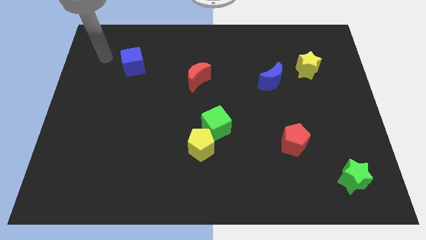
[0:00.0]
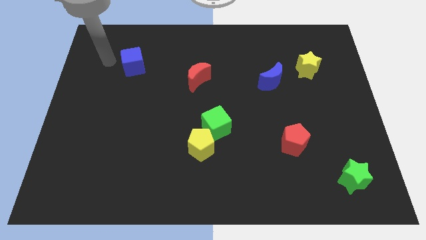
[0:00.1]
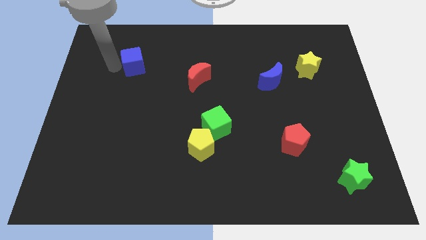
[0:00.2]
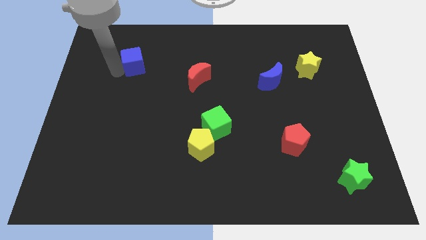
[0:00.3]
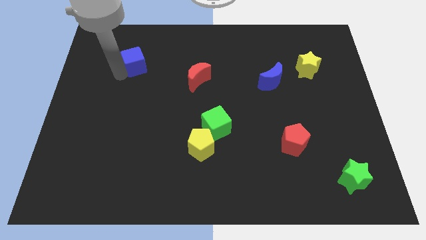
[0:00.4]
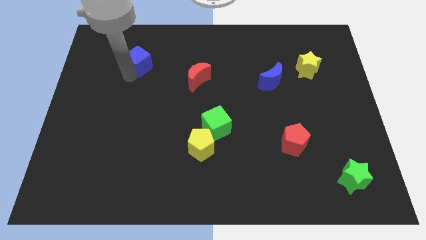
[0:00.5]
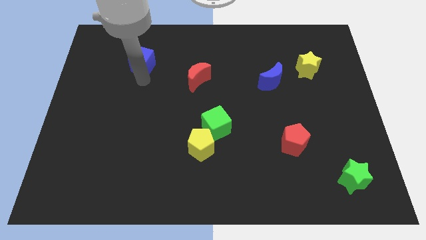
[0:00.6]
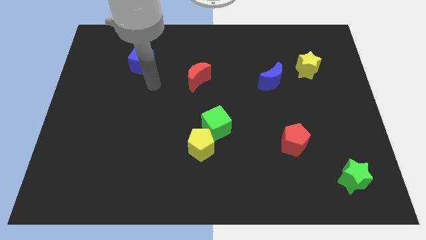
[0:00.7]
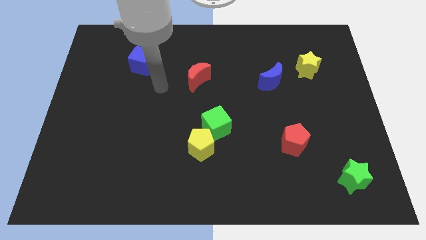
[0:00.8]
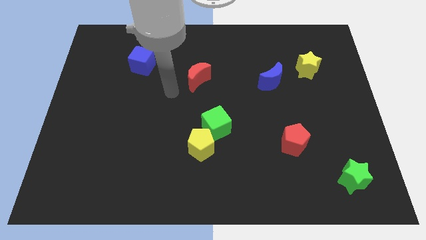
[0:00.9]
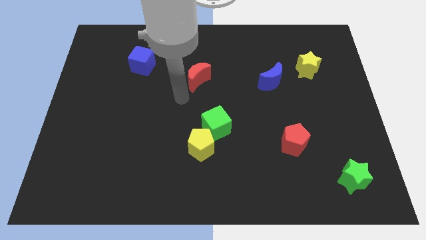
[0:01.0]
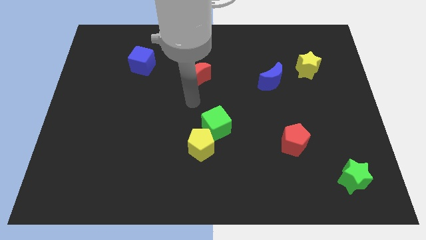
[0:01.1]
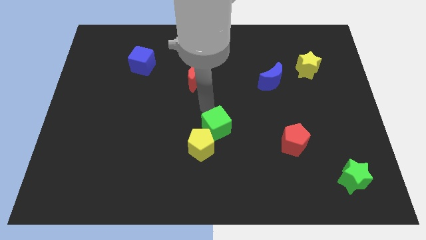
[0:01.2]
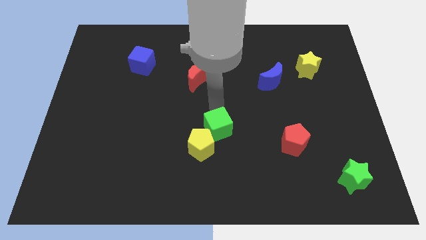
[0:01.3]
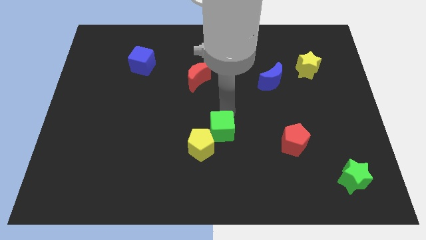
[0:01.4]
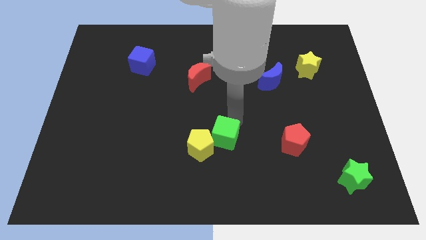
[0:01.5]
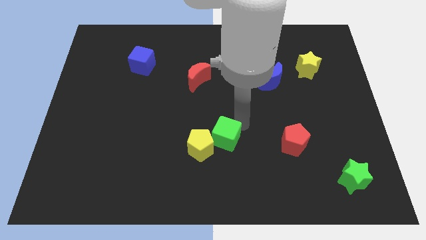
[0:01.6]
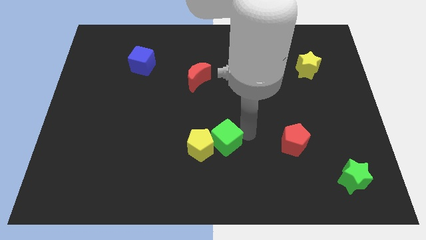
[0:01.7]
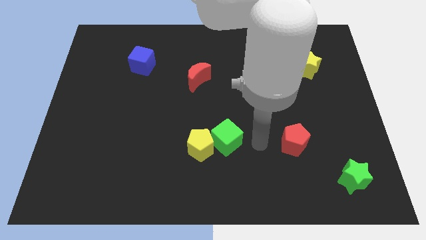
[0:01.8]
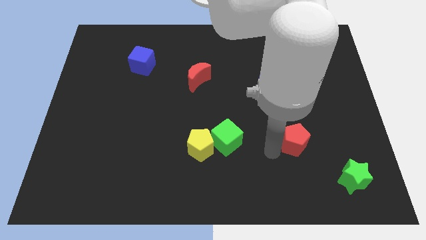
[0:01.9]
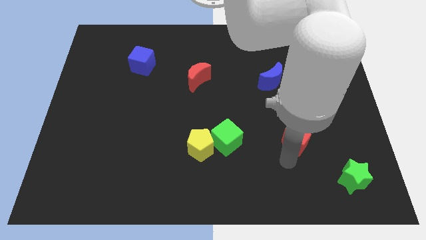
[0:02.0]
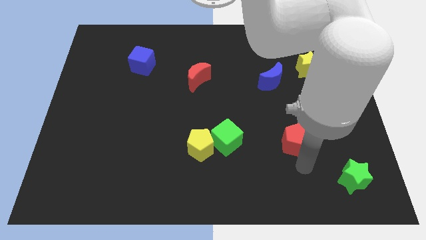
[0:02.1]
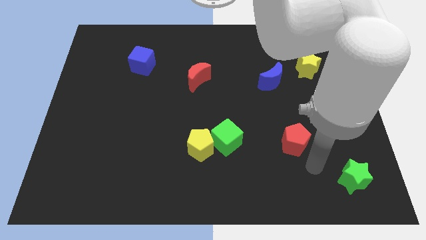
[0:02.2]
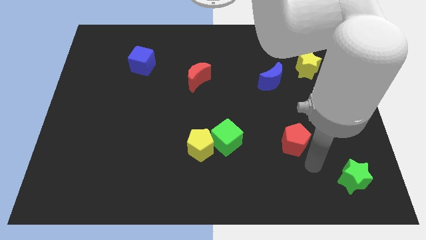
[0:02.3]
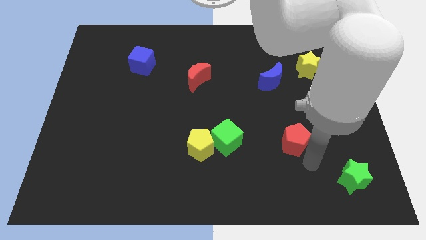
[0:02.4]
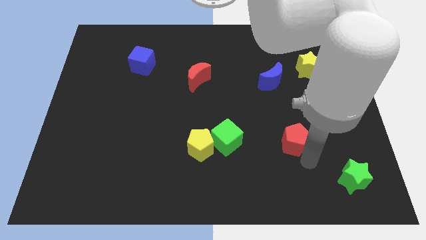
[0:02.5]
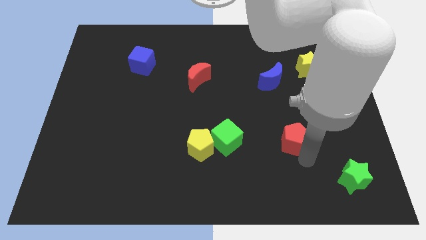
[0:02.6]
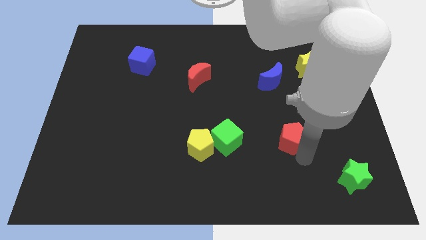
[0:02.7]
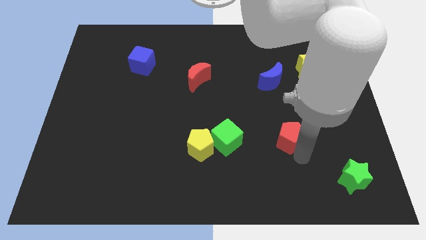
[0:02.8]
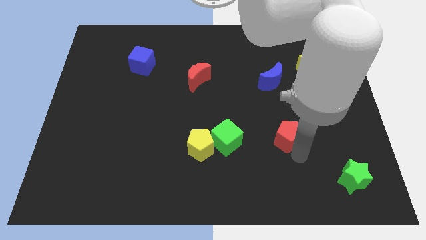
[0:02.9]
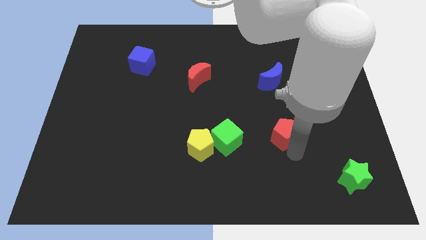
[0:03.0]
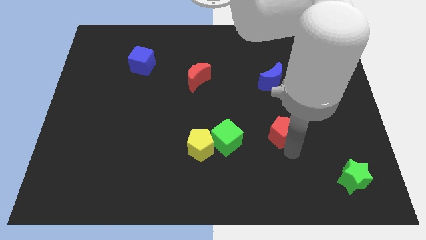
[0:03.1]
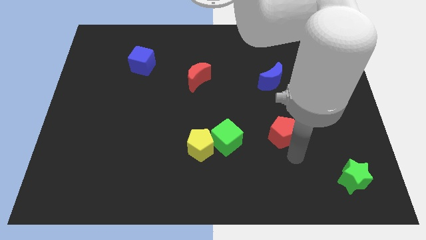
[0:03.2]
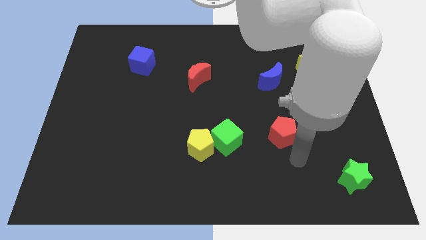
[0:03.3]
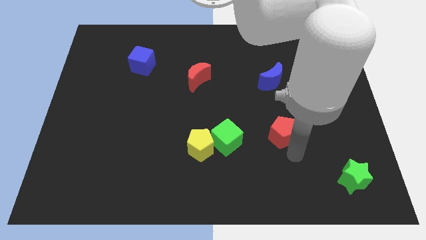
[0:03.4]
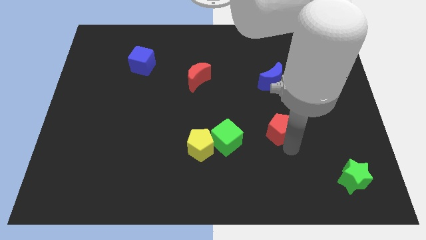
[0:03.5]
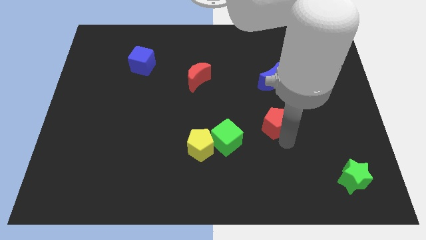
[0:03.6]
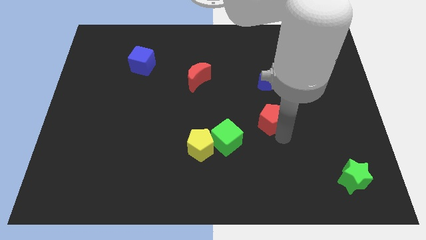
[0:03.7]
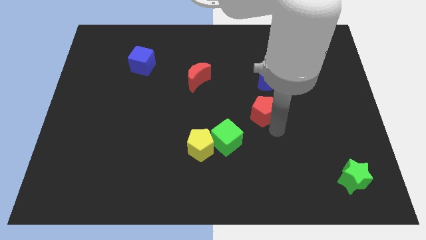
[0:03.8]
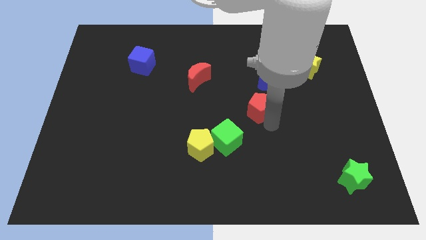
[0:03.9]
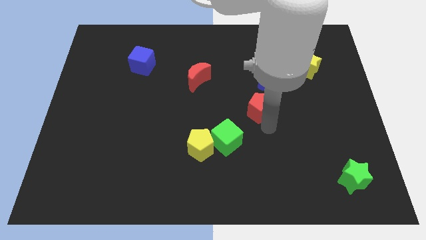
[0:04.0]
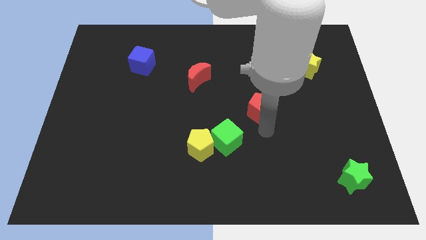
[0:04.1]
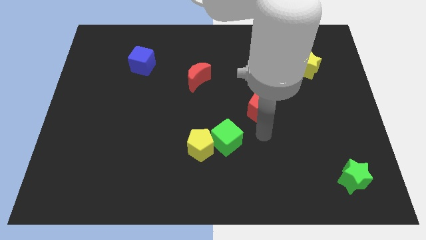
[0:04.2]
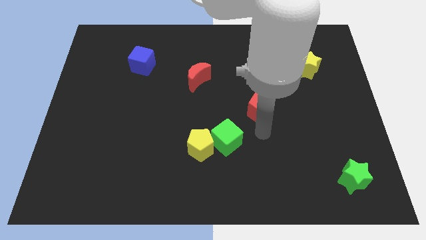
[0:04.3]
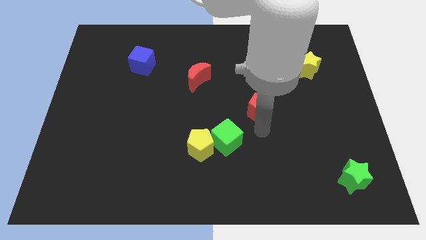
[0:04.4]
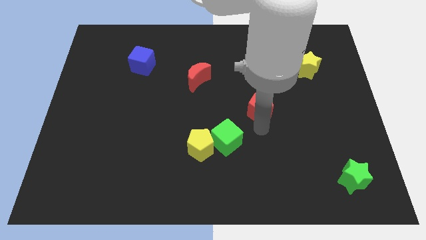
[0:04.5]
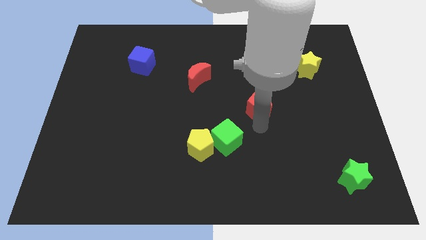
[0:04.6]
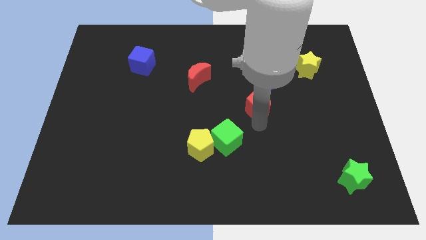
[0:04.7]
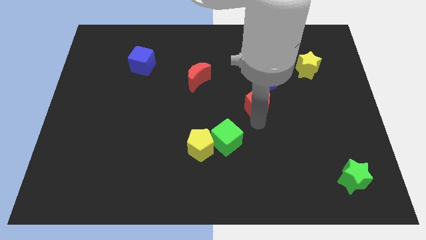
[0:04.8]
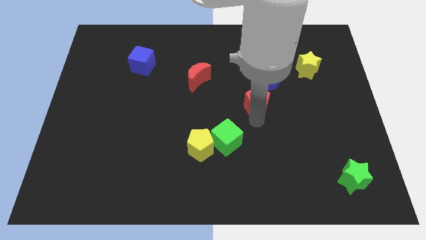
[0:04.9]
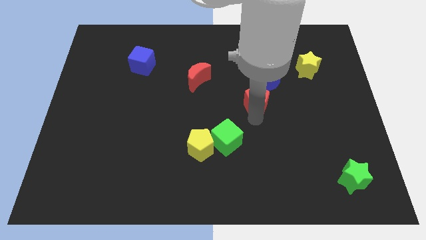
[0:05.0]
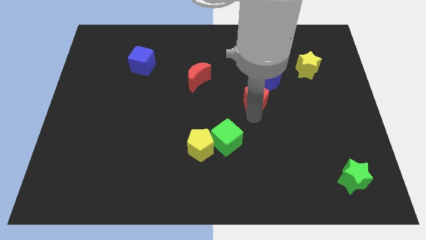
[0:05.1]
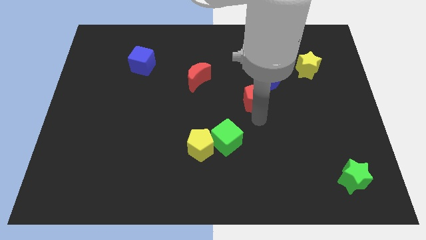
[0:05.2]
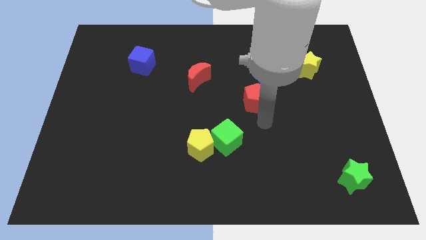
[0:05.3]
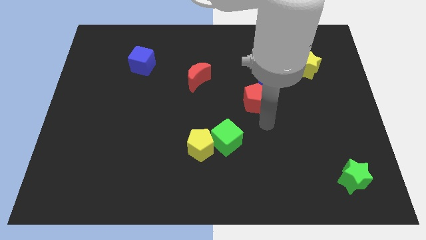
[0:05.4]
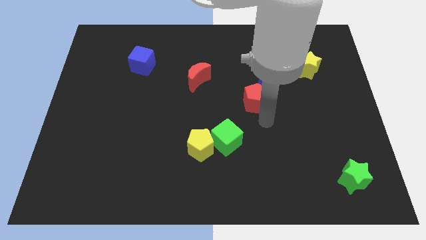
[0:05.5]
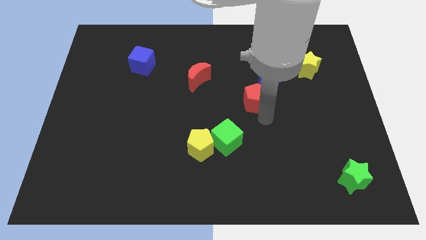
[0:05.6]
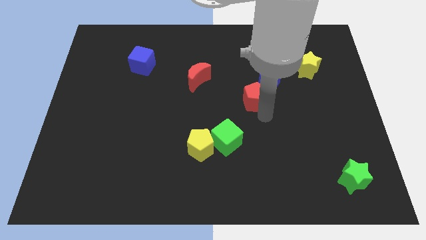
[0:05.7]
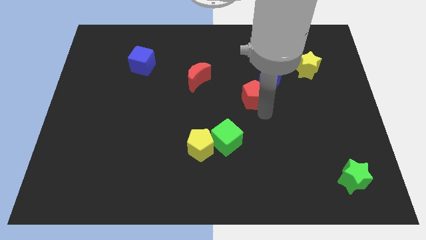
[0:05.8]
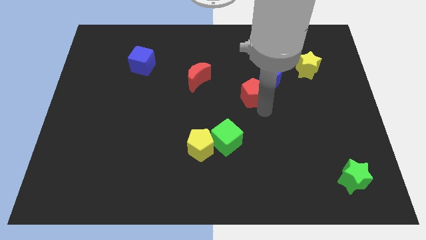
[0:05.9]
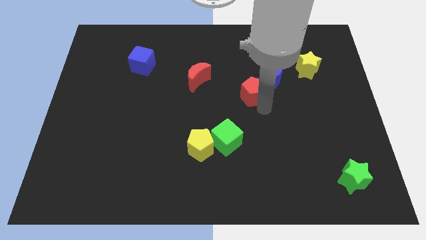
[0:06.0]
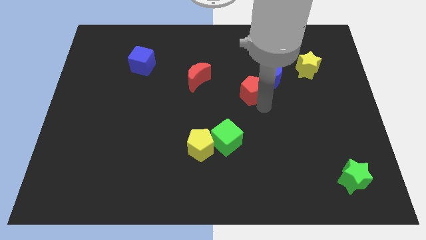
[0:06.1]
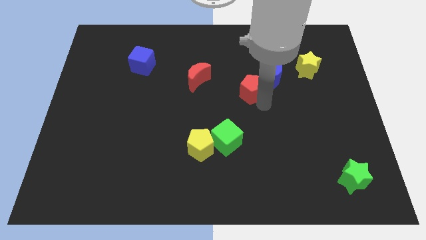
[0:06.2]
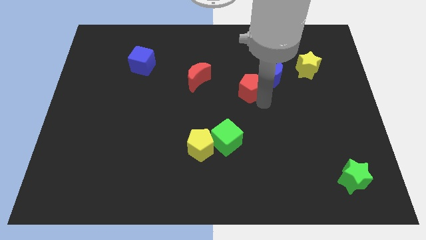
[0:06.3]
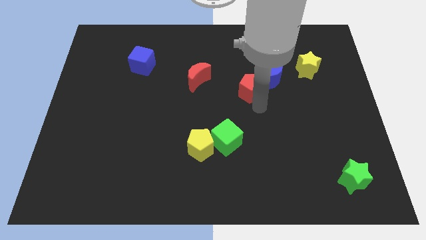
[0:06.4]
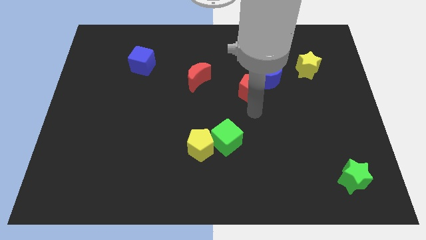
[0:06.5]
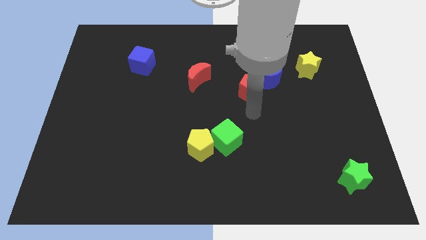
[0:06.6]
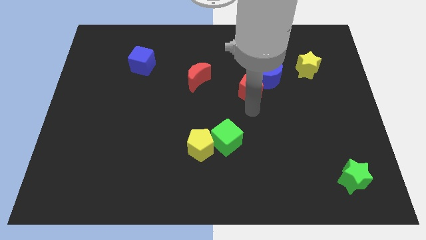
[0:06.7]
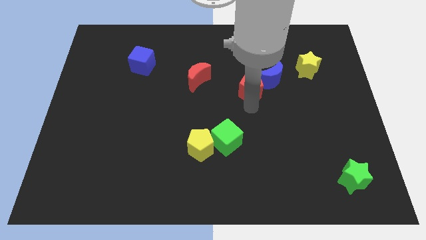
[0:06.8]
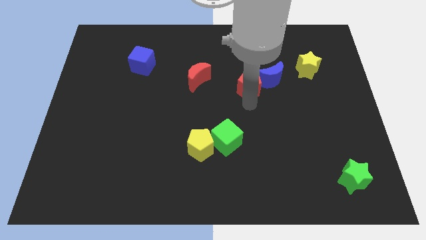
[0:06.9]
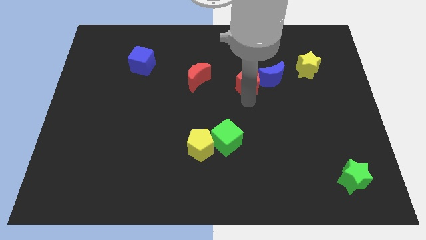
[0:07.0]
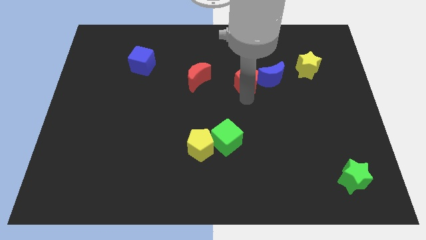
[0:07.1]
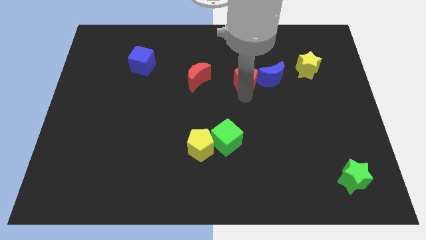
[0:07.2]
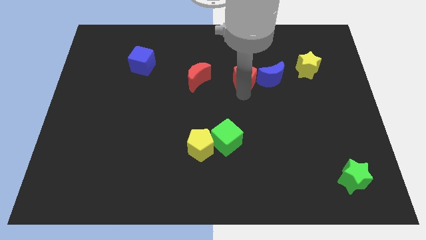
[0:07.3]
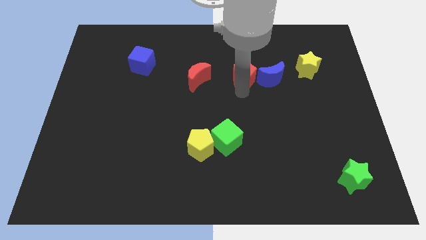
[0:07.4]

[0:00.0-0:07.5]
push the red pentagon diagonally up and to the left of the blue moon

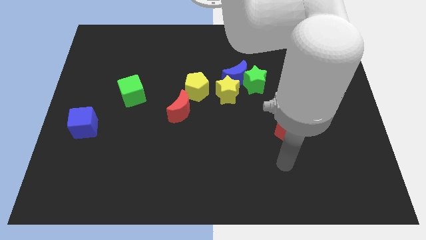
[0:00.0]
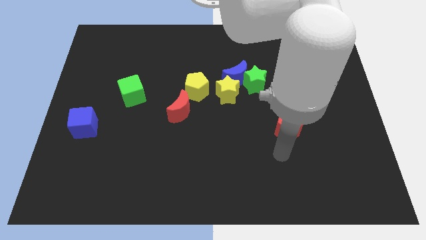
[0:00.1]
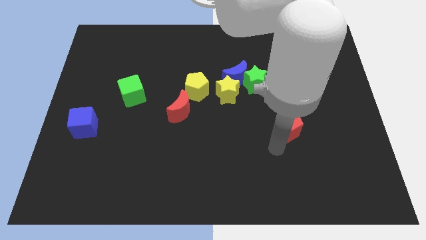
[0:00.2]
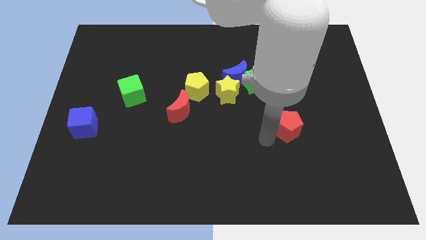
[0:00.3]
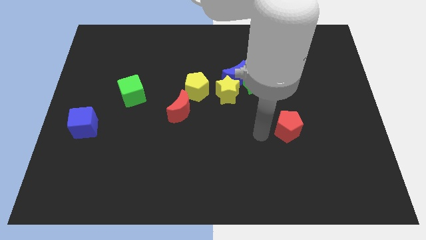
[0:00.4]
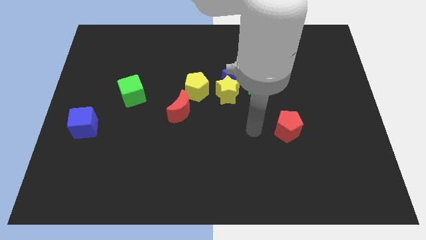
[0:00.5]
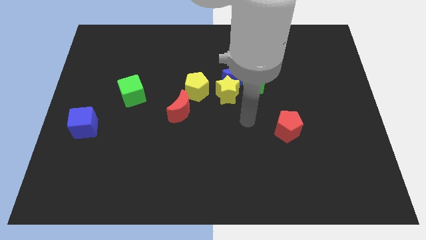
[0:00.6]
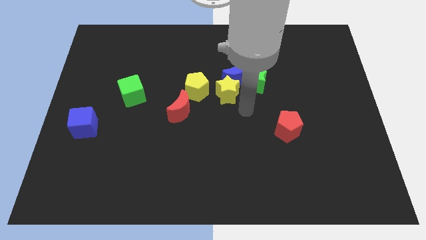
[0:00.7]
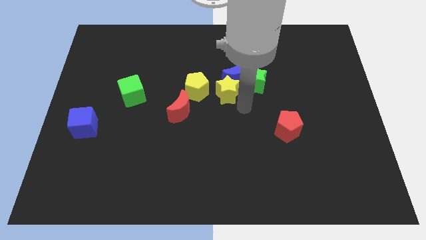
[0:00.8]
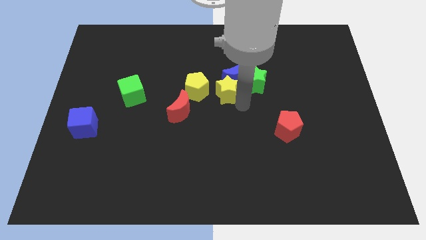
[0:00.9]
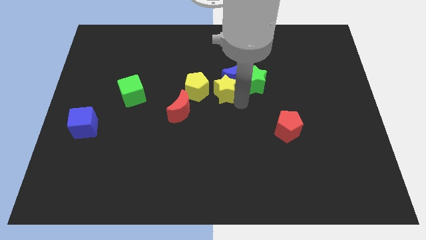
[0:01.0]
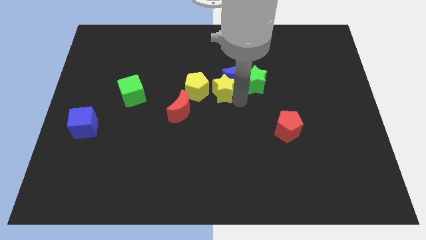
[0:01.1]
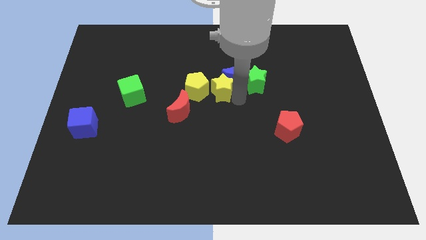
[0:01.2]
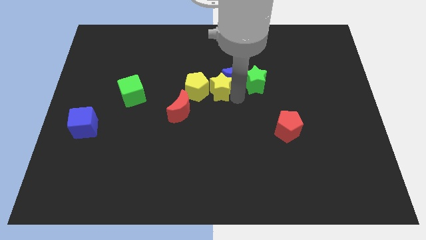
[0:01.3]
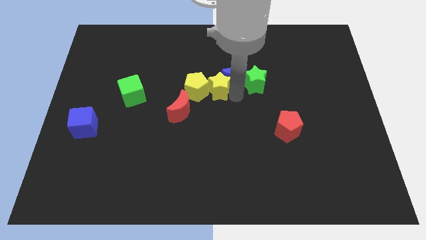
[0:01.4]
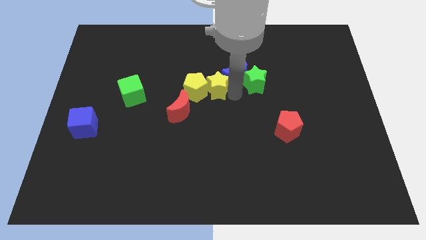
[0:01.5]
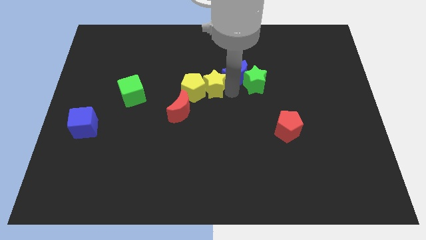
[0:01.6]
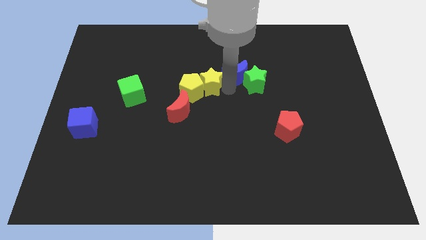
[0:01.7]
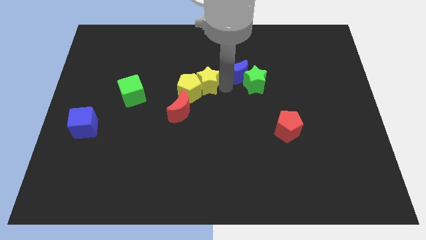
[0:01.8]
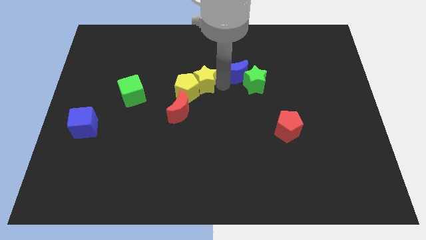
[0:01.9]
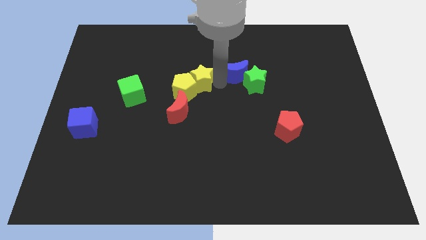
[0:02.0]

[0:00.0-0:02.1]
put the yellow star to the top of the yellow pentagon
